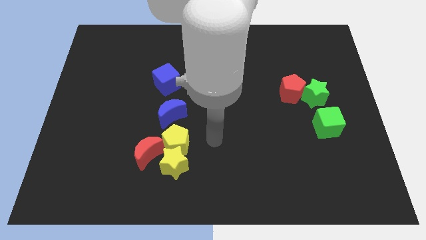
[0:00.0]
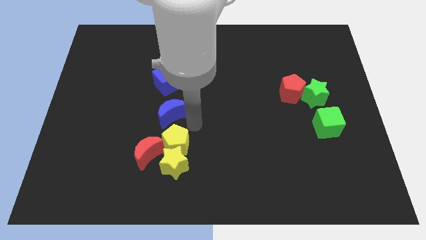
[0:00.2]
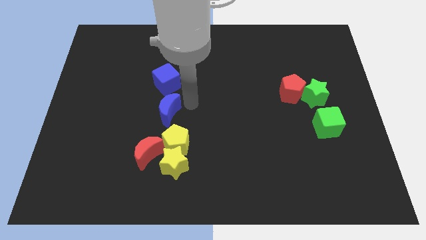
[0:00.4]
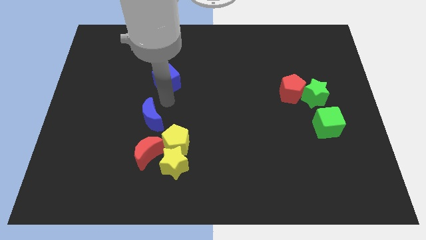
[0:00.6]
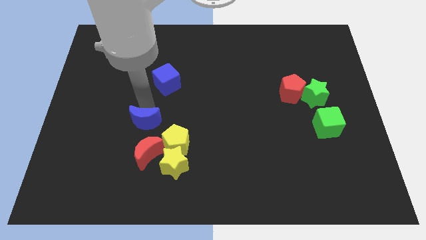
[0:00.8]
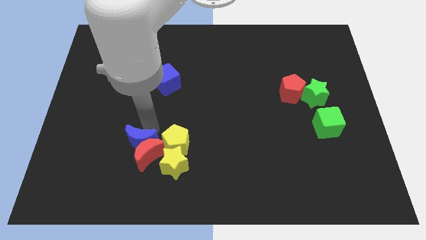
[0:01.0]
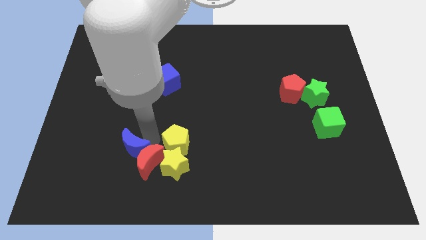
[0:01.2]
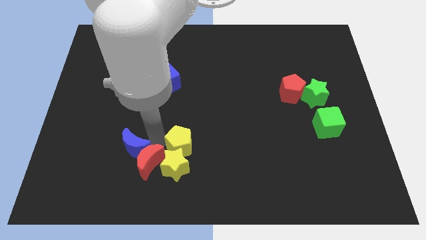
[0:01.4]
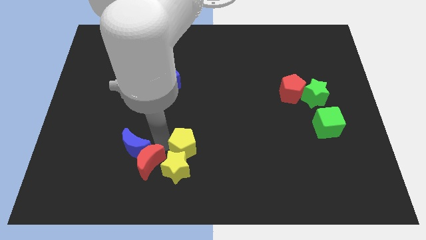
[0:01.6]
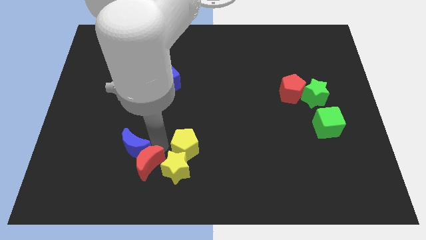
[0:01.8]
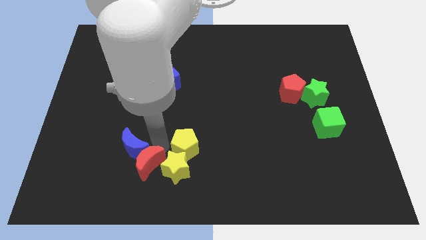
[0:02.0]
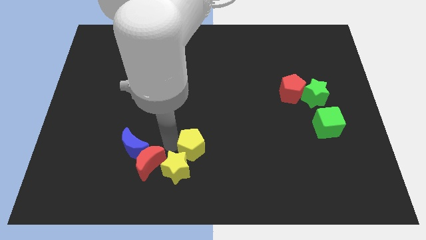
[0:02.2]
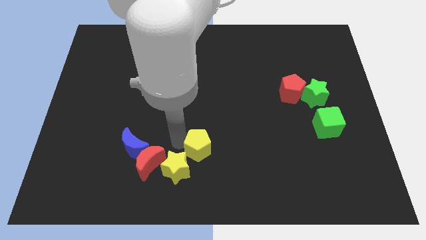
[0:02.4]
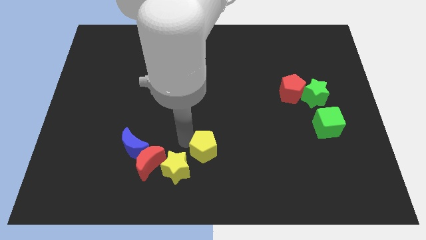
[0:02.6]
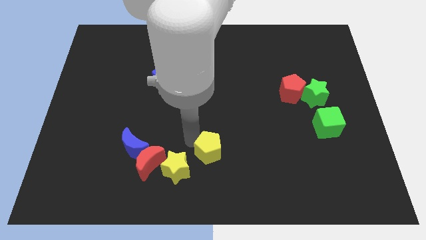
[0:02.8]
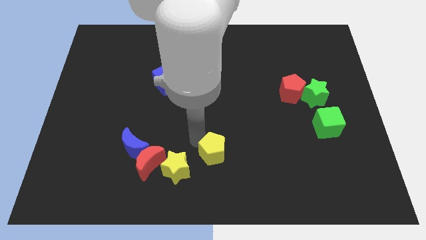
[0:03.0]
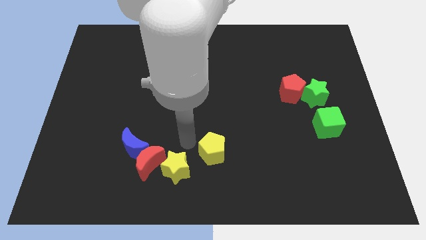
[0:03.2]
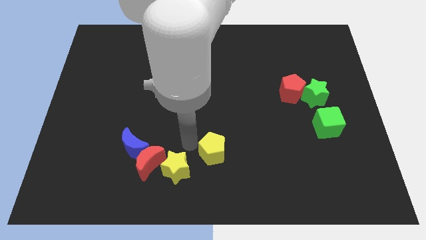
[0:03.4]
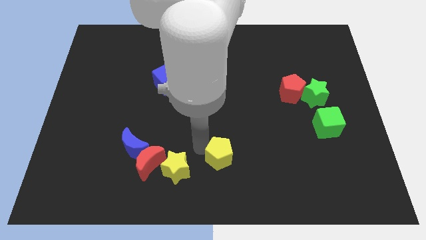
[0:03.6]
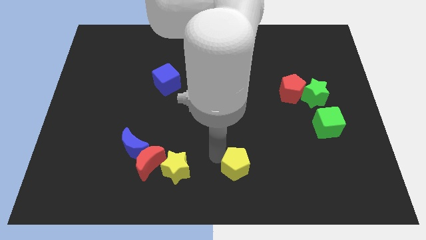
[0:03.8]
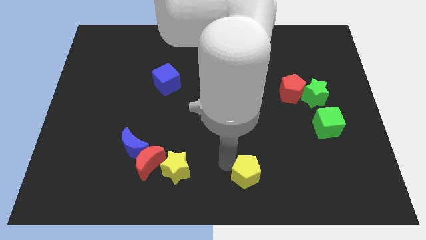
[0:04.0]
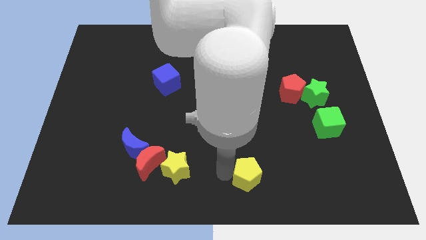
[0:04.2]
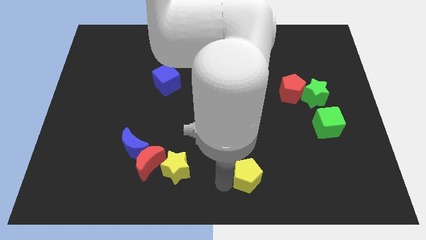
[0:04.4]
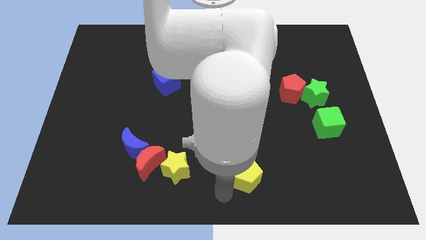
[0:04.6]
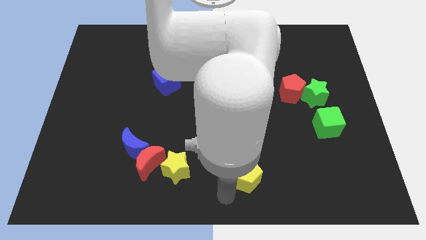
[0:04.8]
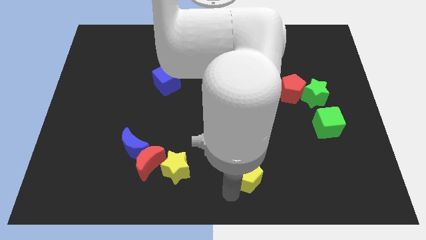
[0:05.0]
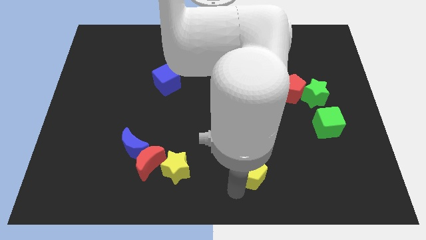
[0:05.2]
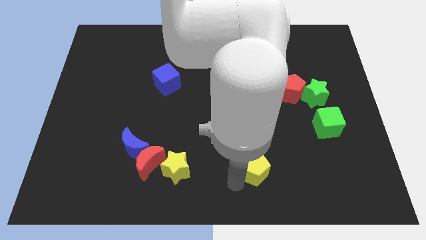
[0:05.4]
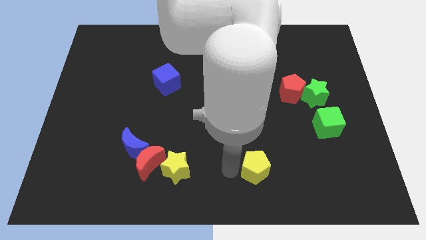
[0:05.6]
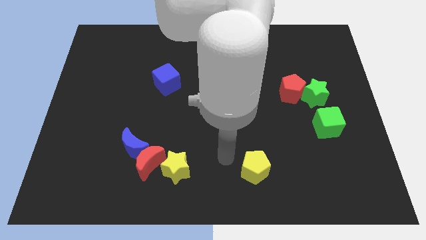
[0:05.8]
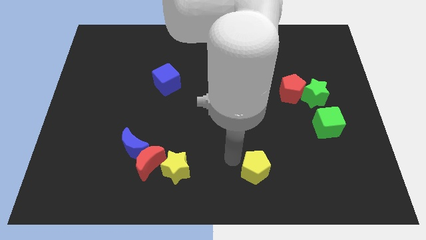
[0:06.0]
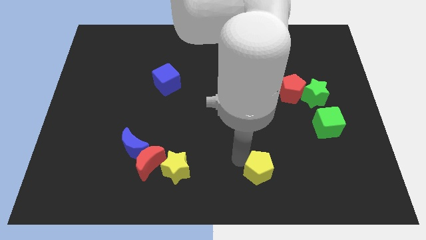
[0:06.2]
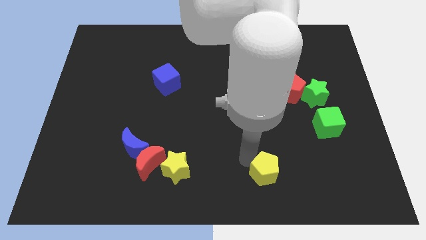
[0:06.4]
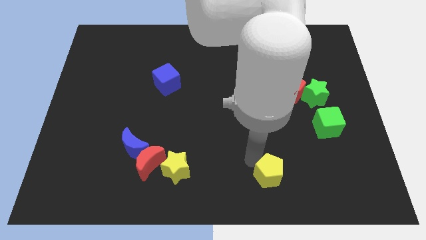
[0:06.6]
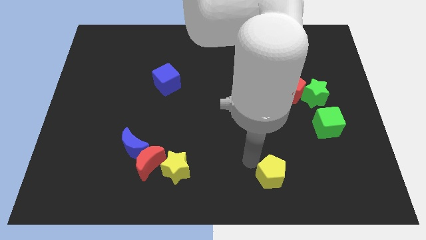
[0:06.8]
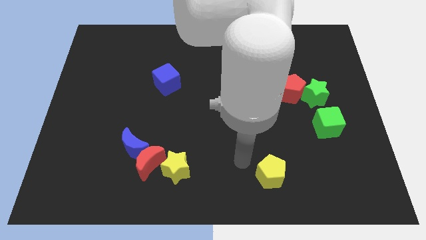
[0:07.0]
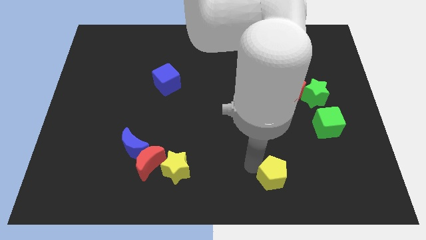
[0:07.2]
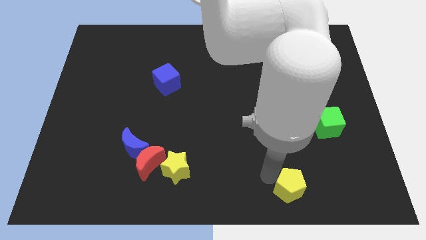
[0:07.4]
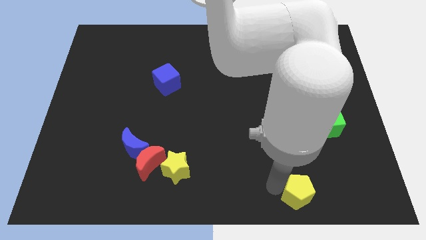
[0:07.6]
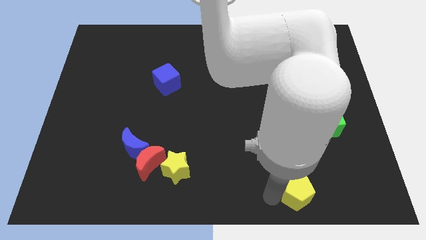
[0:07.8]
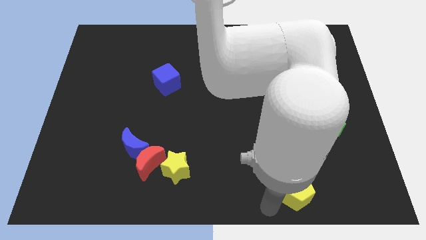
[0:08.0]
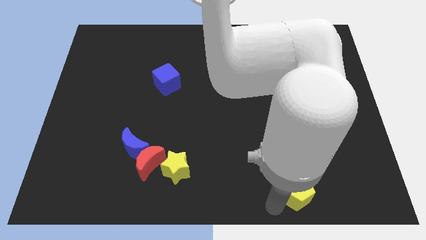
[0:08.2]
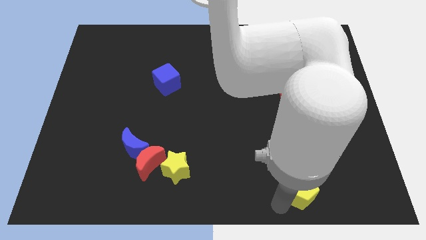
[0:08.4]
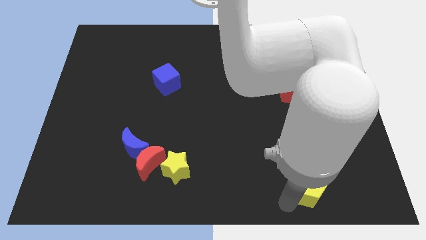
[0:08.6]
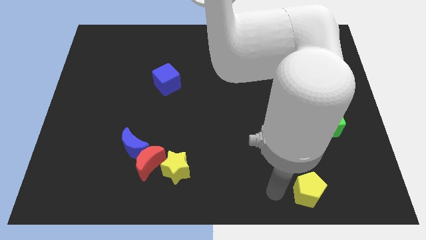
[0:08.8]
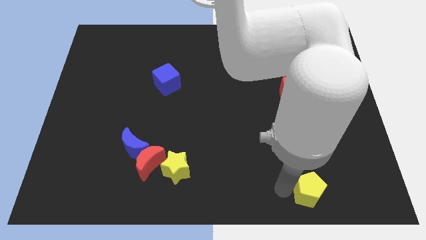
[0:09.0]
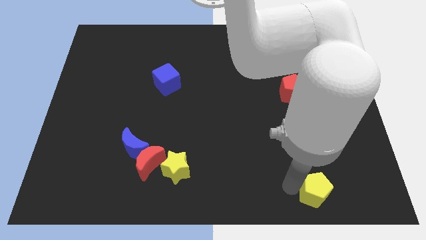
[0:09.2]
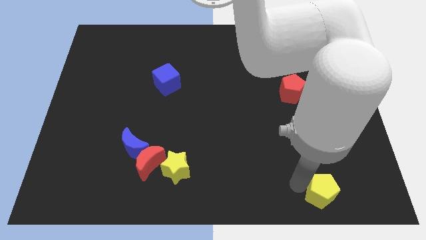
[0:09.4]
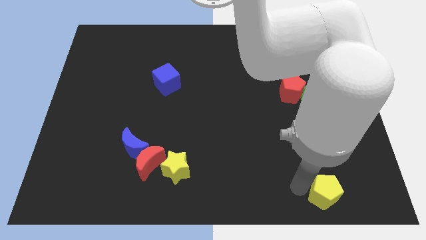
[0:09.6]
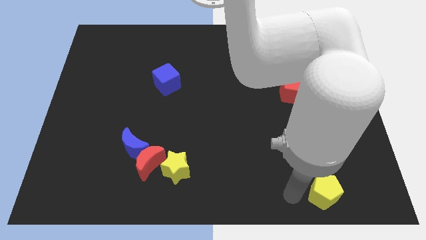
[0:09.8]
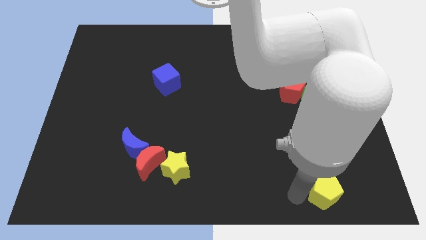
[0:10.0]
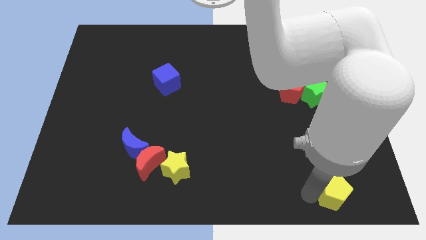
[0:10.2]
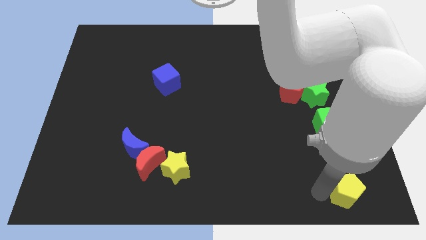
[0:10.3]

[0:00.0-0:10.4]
move the yellow pentagon to the bottom right corner

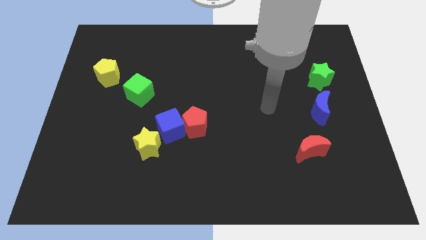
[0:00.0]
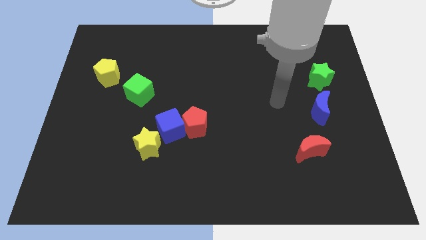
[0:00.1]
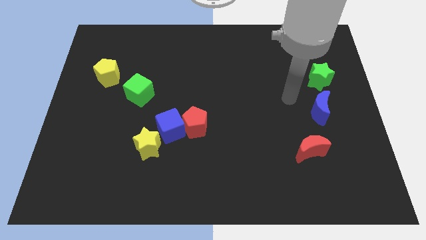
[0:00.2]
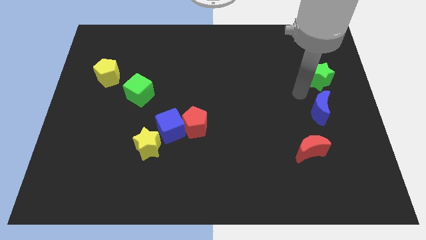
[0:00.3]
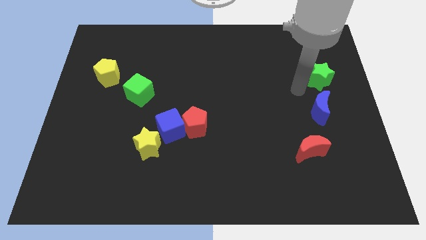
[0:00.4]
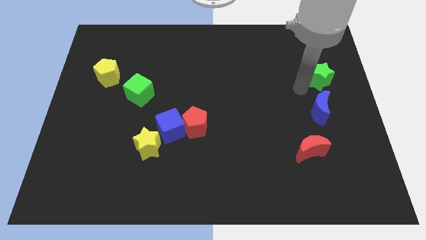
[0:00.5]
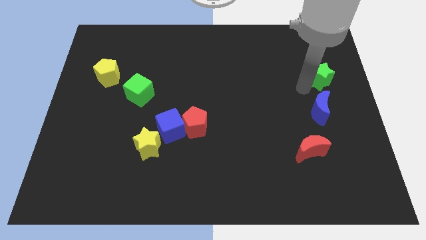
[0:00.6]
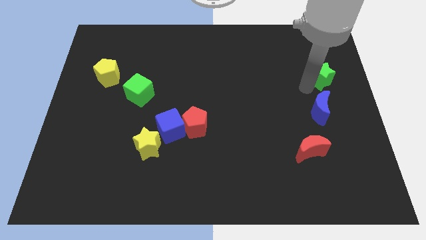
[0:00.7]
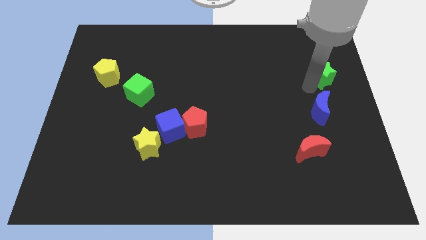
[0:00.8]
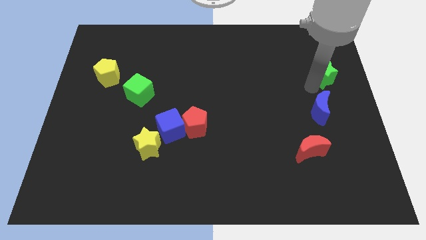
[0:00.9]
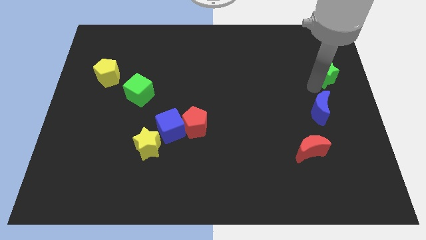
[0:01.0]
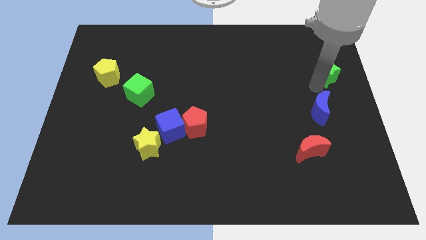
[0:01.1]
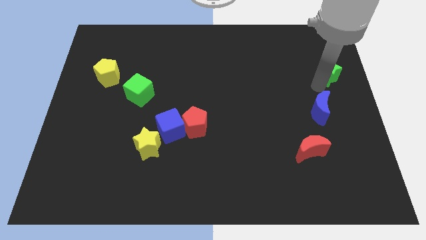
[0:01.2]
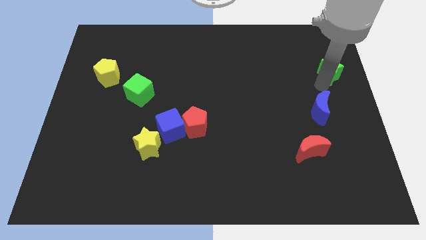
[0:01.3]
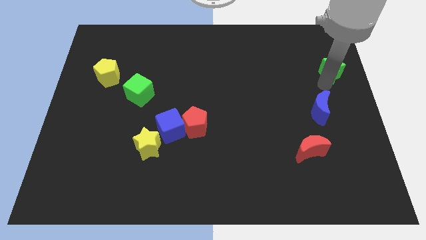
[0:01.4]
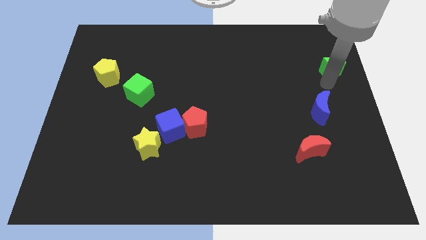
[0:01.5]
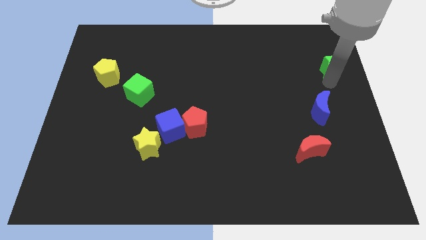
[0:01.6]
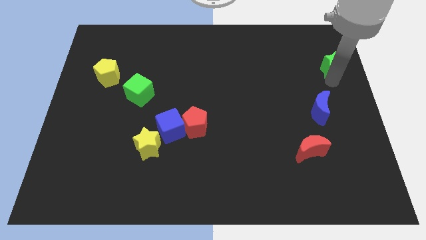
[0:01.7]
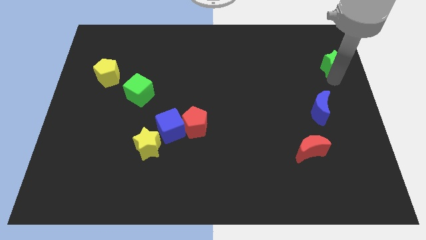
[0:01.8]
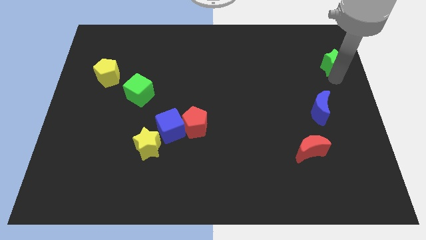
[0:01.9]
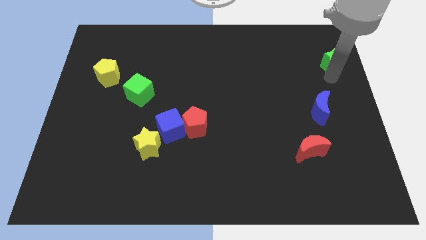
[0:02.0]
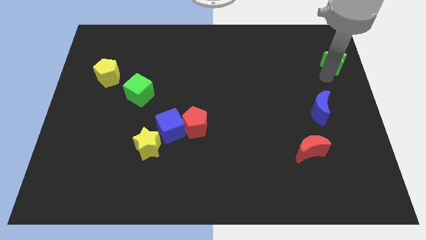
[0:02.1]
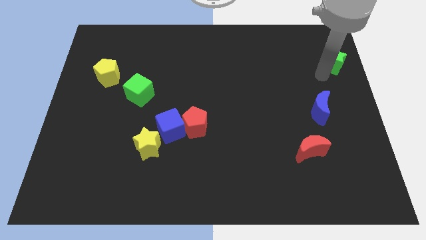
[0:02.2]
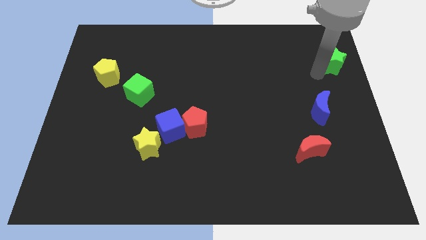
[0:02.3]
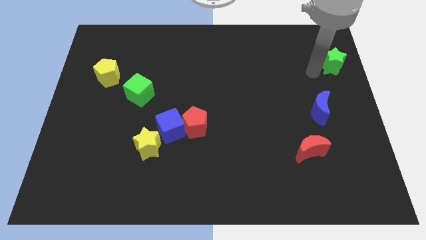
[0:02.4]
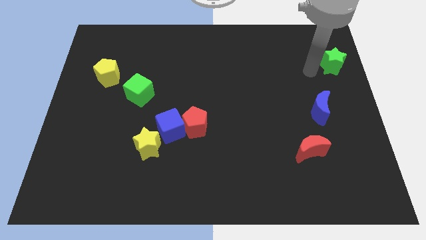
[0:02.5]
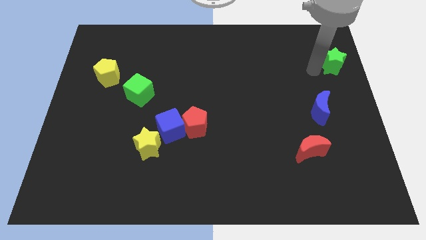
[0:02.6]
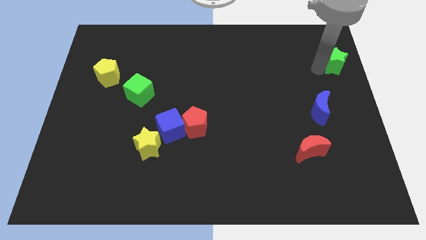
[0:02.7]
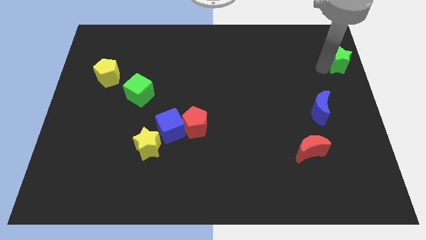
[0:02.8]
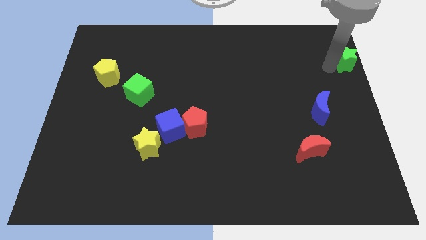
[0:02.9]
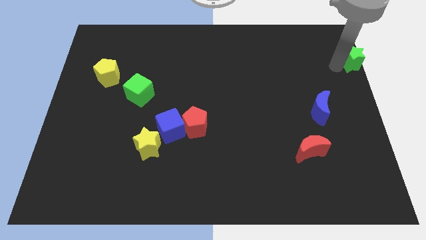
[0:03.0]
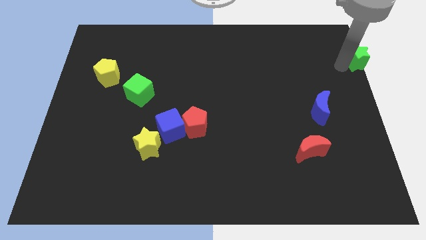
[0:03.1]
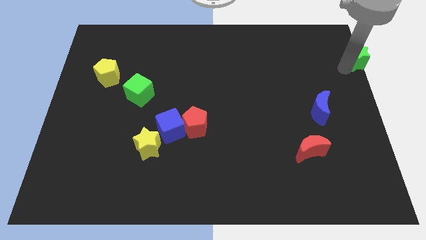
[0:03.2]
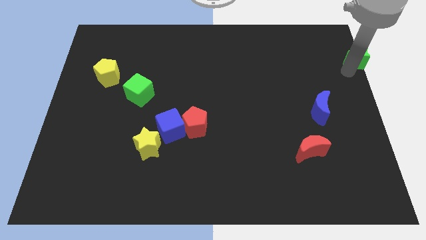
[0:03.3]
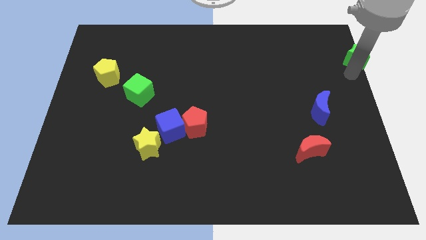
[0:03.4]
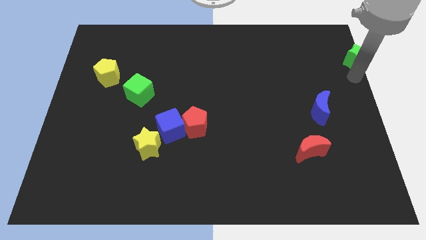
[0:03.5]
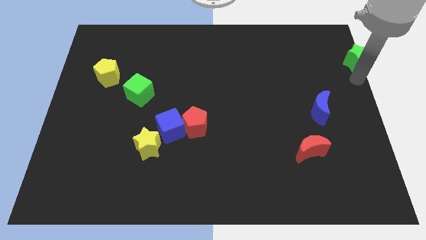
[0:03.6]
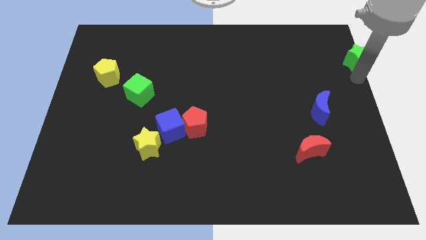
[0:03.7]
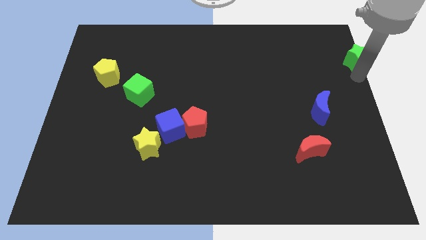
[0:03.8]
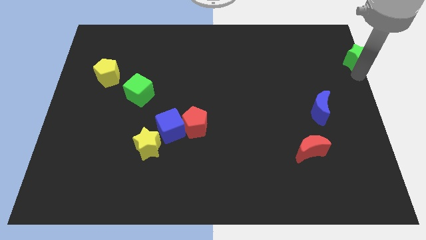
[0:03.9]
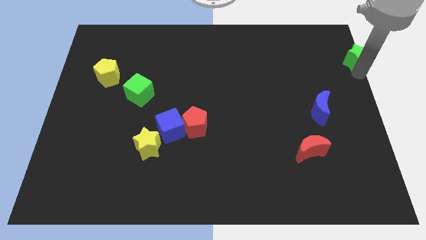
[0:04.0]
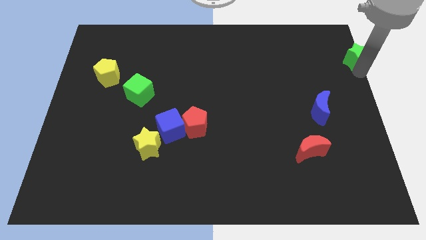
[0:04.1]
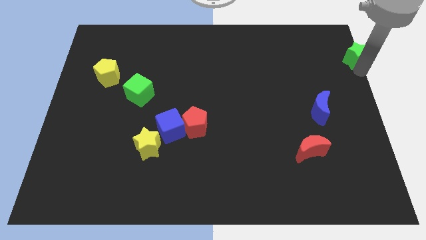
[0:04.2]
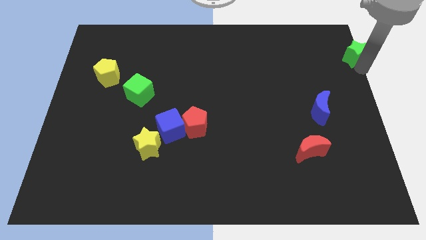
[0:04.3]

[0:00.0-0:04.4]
push the green star to the top right
